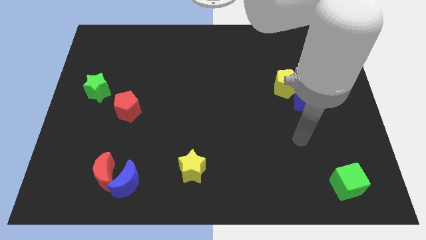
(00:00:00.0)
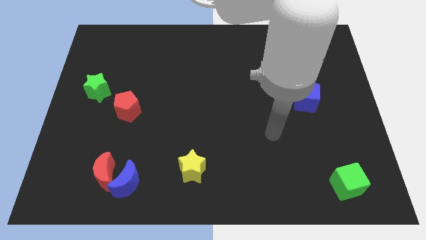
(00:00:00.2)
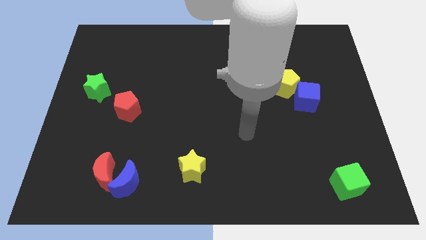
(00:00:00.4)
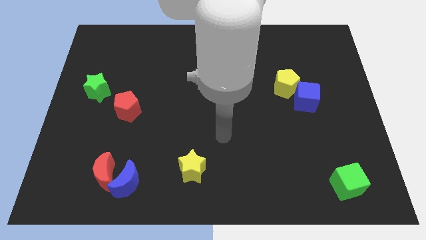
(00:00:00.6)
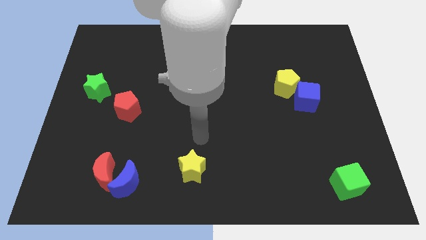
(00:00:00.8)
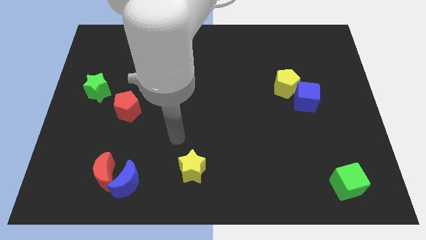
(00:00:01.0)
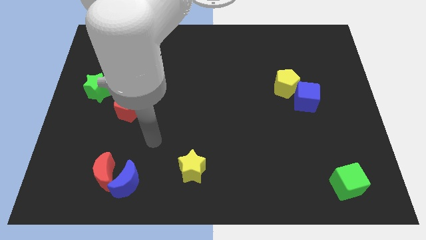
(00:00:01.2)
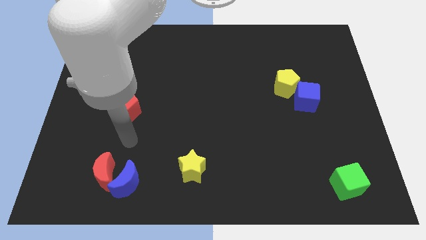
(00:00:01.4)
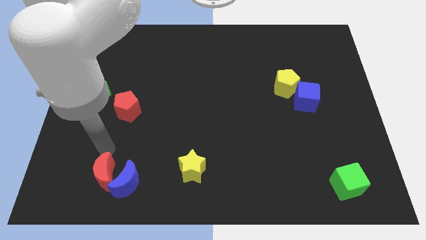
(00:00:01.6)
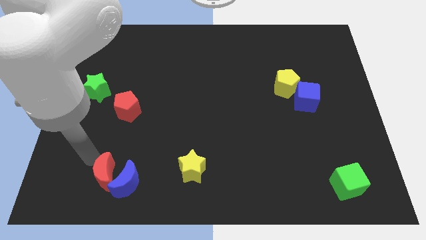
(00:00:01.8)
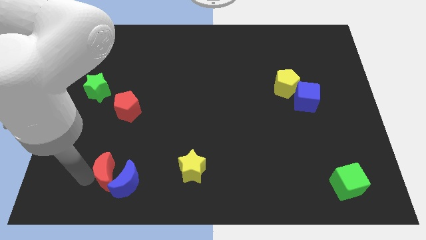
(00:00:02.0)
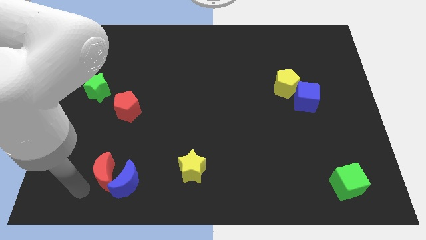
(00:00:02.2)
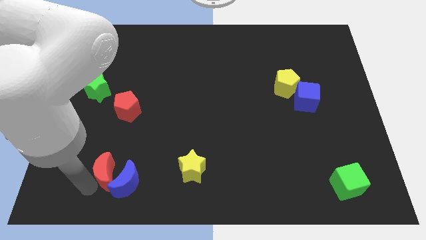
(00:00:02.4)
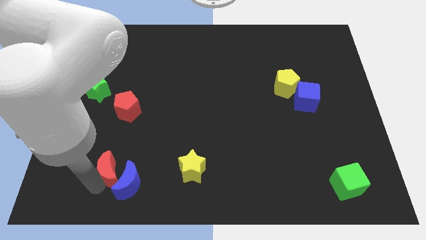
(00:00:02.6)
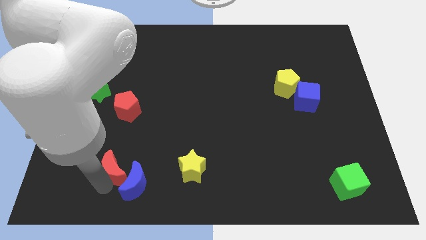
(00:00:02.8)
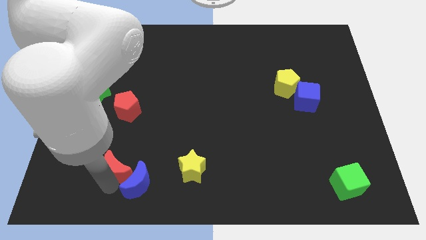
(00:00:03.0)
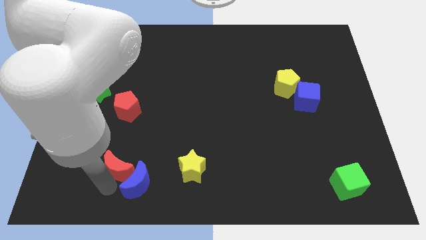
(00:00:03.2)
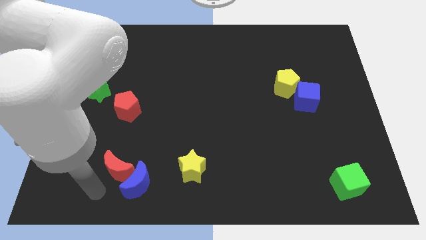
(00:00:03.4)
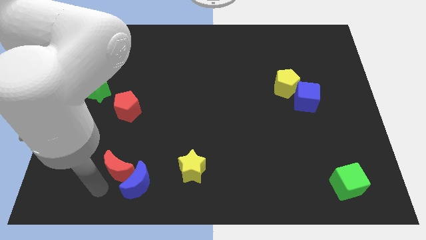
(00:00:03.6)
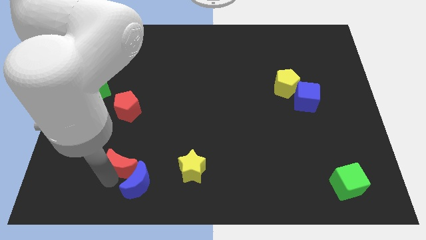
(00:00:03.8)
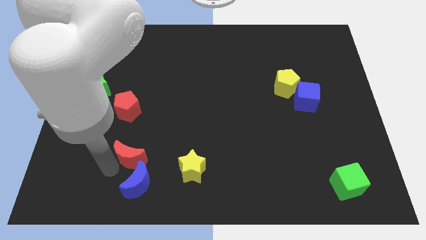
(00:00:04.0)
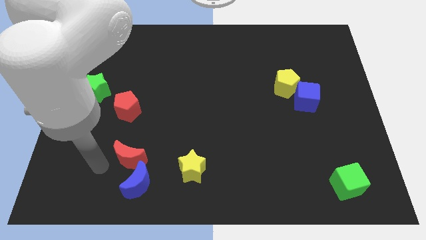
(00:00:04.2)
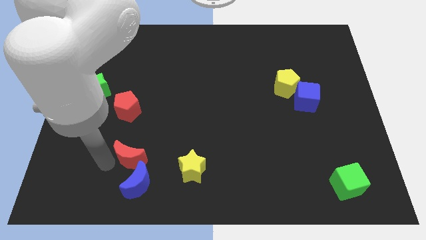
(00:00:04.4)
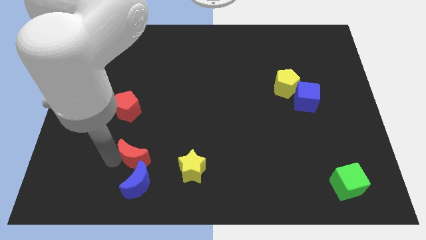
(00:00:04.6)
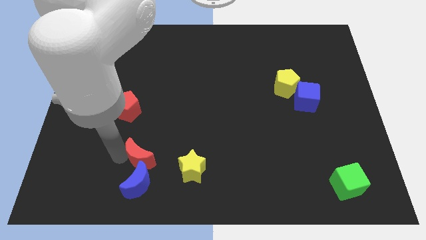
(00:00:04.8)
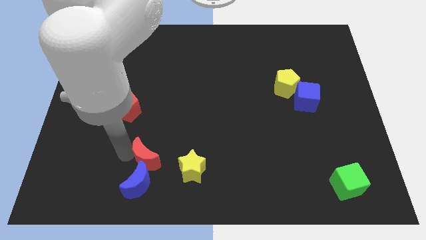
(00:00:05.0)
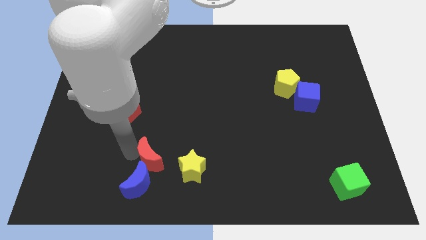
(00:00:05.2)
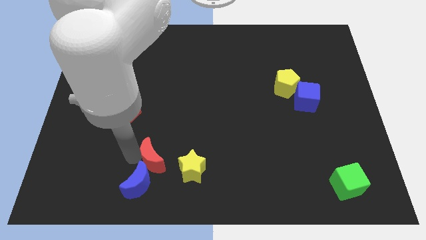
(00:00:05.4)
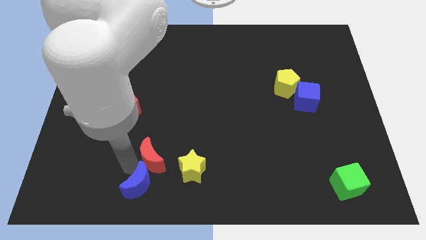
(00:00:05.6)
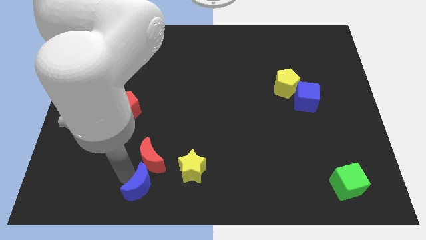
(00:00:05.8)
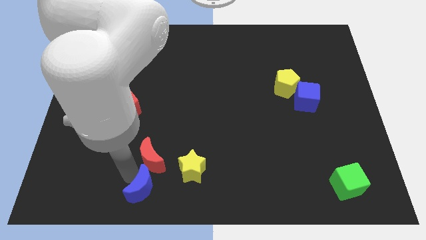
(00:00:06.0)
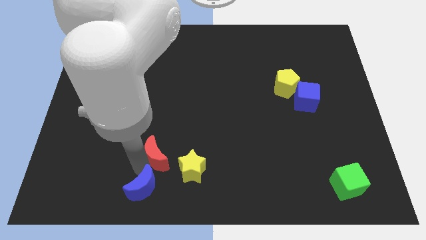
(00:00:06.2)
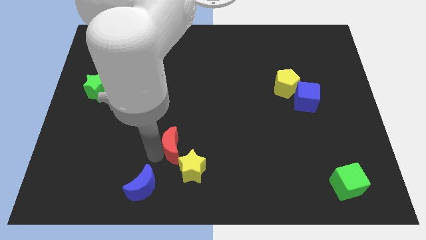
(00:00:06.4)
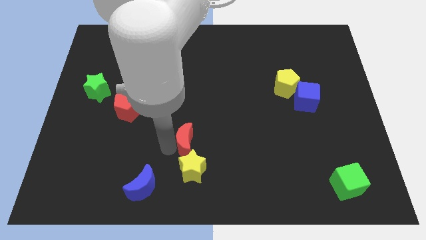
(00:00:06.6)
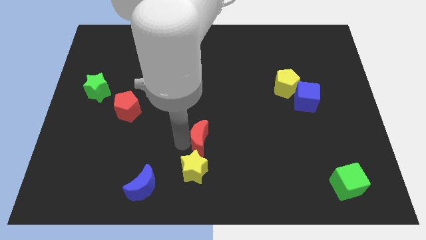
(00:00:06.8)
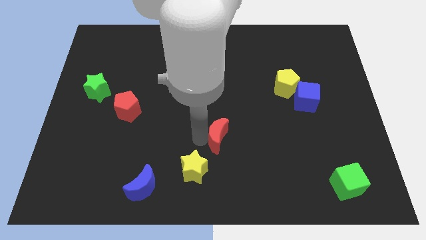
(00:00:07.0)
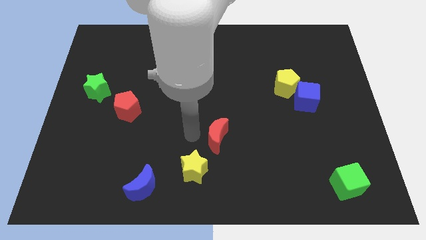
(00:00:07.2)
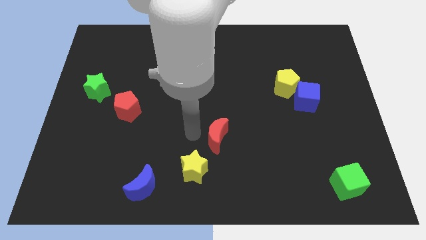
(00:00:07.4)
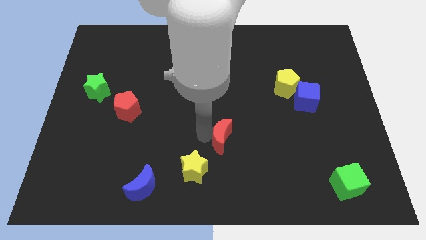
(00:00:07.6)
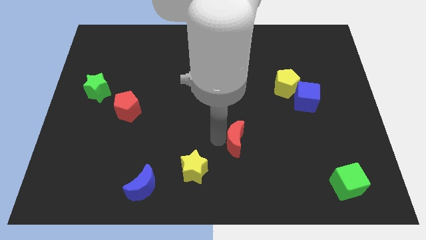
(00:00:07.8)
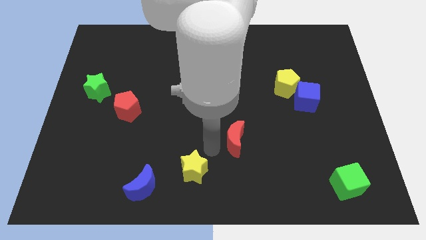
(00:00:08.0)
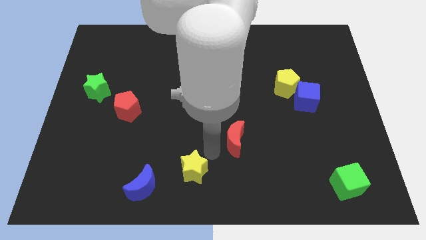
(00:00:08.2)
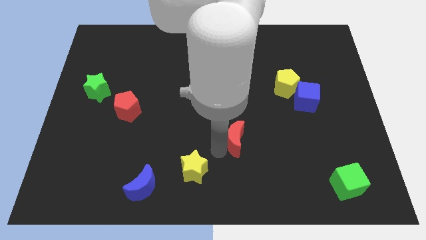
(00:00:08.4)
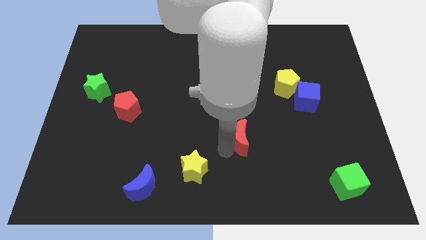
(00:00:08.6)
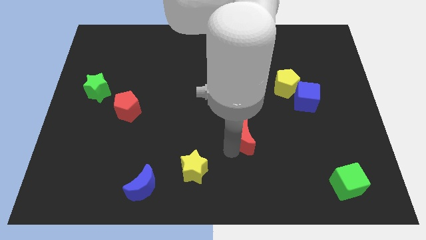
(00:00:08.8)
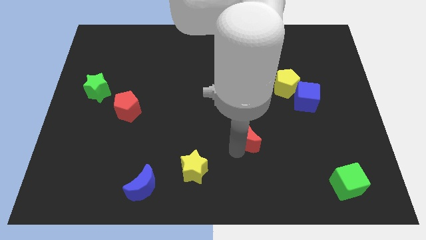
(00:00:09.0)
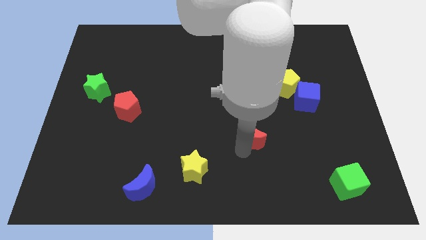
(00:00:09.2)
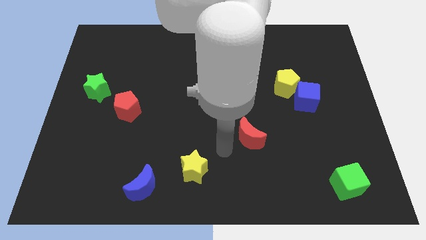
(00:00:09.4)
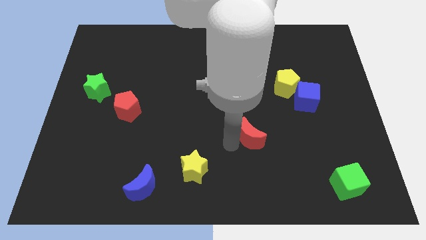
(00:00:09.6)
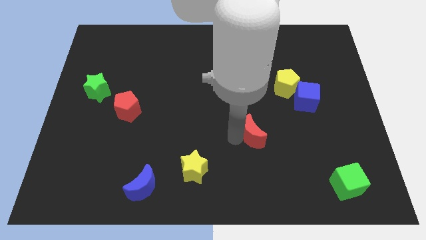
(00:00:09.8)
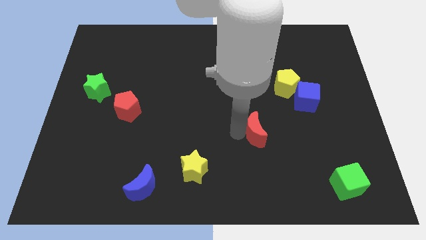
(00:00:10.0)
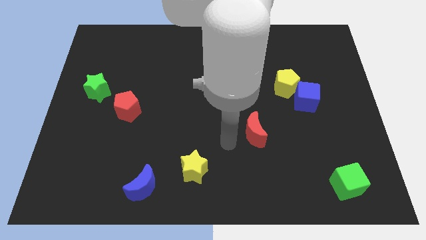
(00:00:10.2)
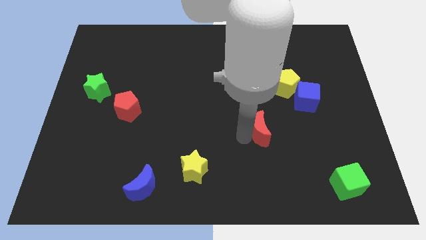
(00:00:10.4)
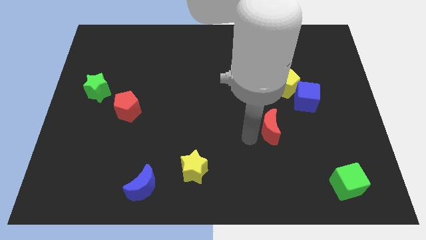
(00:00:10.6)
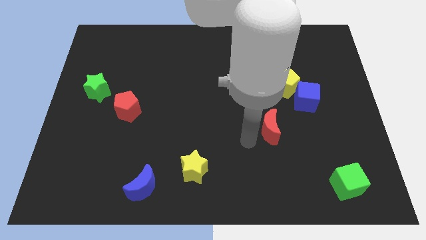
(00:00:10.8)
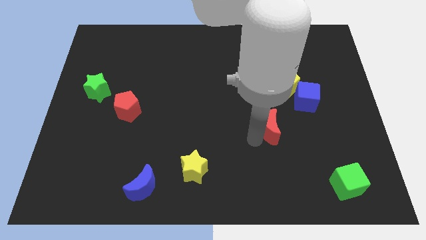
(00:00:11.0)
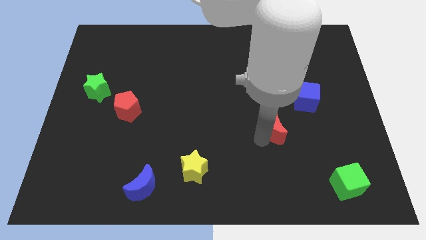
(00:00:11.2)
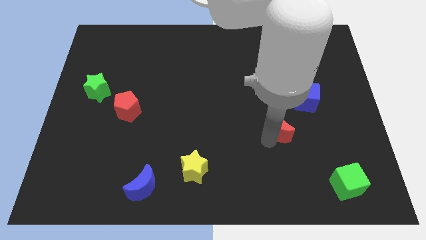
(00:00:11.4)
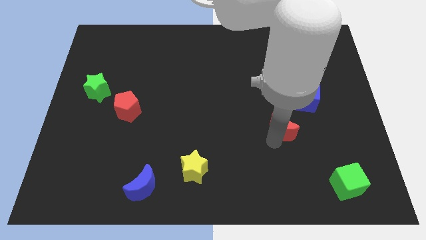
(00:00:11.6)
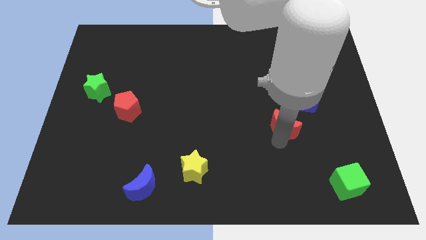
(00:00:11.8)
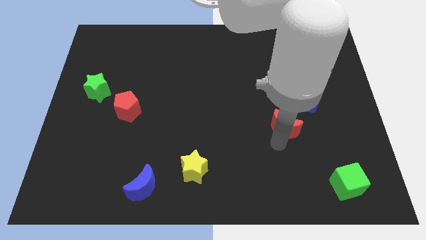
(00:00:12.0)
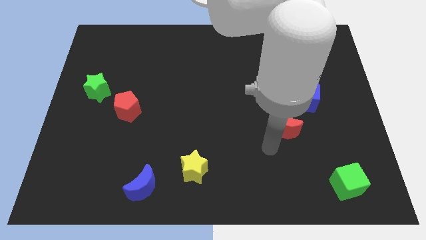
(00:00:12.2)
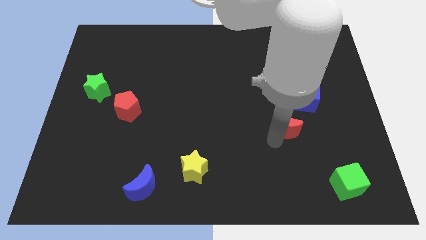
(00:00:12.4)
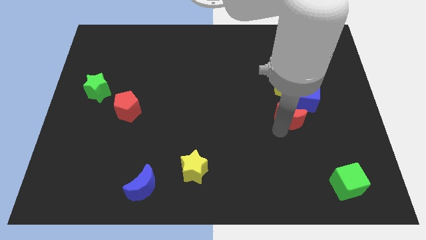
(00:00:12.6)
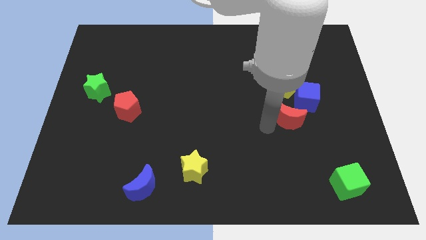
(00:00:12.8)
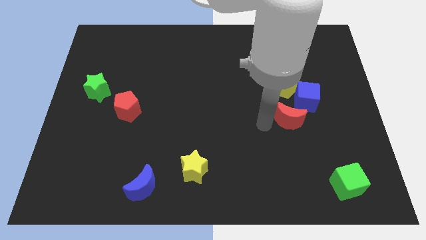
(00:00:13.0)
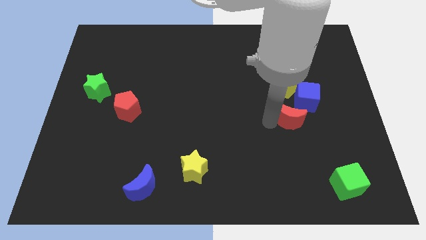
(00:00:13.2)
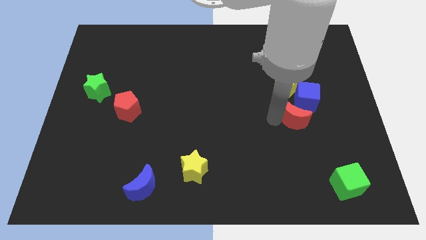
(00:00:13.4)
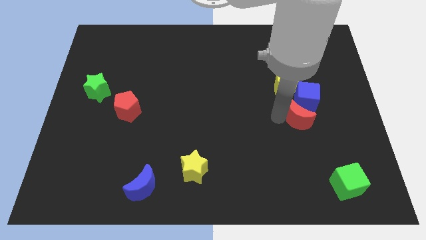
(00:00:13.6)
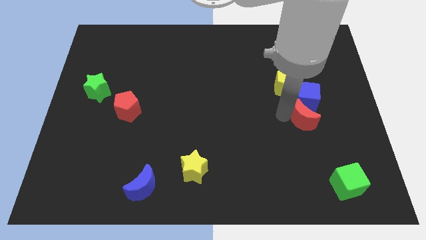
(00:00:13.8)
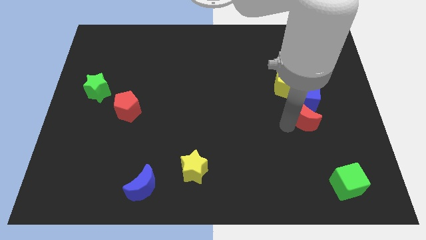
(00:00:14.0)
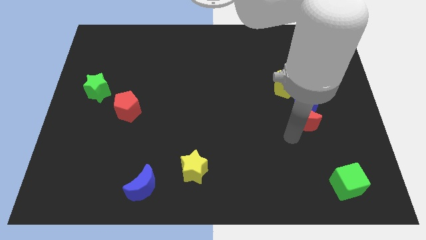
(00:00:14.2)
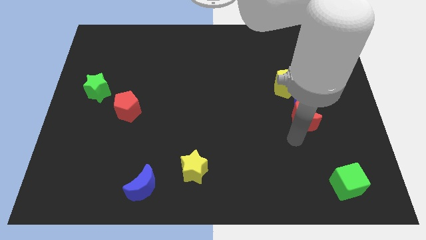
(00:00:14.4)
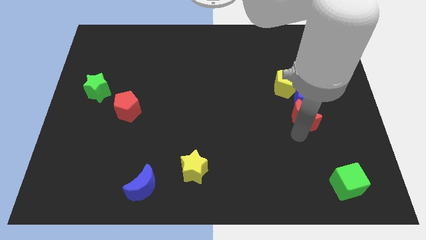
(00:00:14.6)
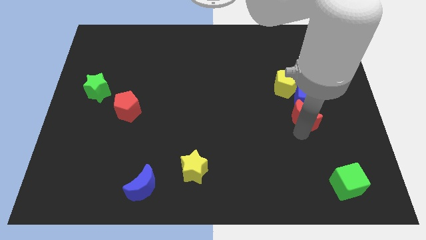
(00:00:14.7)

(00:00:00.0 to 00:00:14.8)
put the red moon diagonally down and to the right of the yellow pentagon
